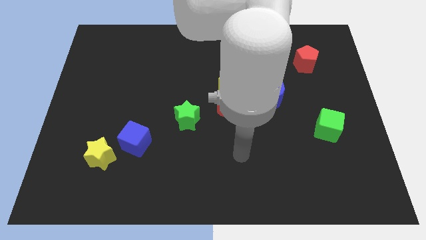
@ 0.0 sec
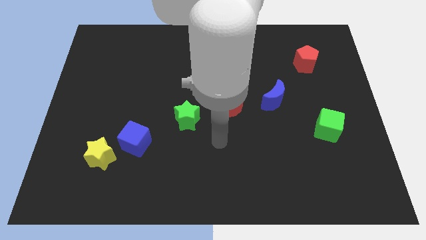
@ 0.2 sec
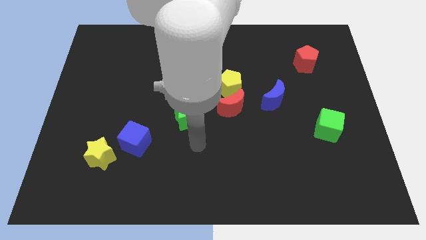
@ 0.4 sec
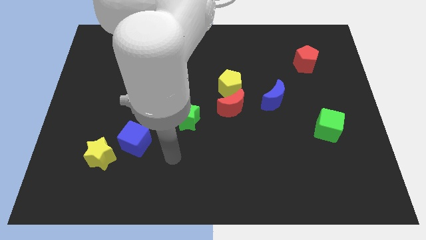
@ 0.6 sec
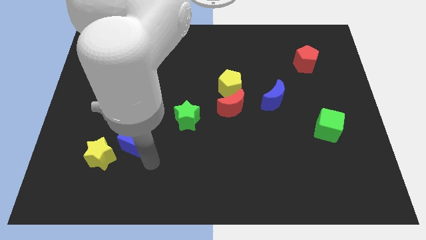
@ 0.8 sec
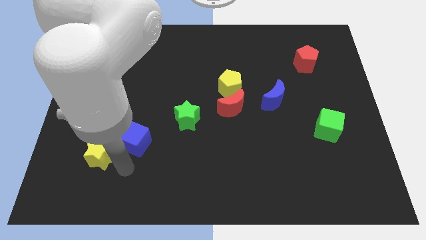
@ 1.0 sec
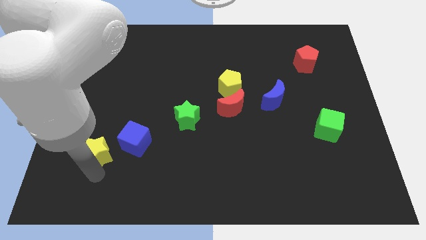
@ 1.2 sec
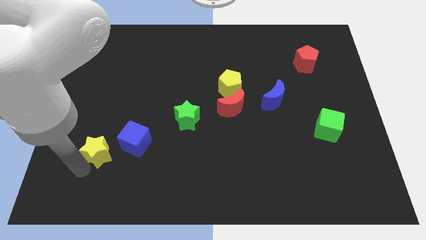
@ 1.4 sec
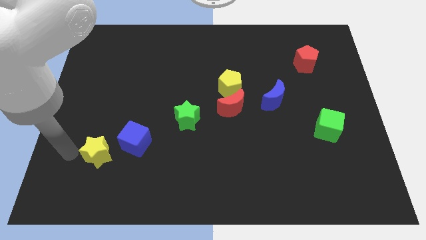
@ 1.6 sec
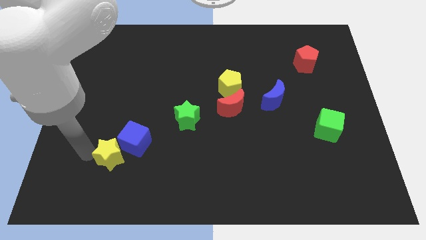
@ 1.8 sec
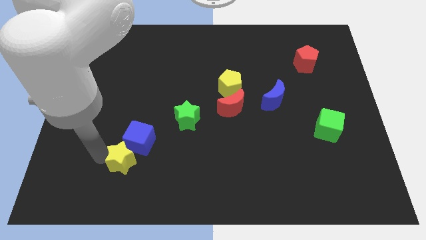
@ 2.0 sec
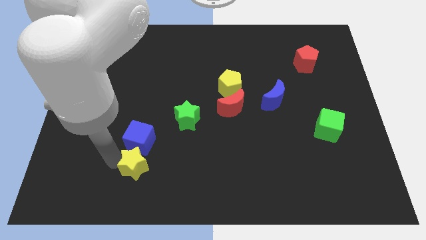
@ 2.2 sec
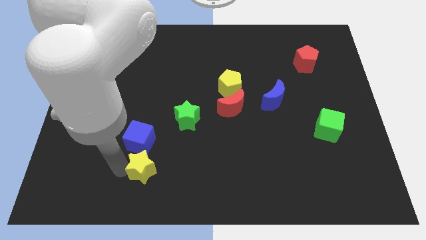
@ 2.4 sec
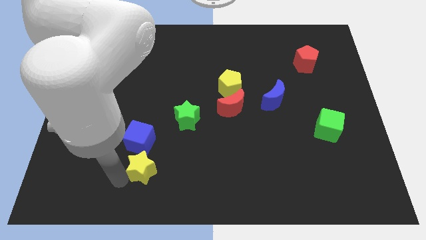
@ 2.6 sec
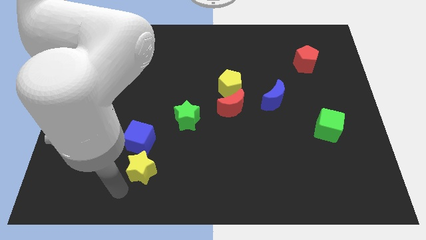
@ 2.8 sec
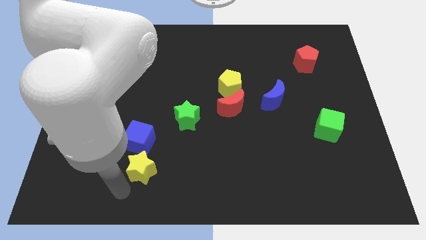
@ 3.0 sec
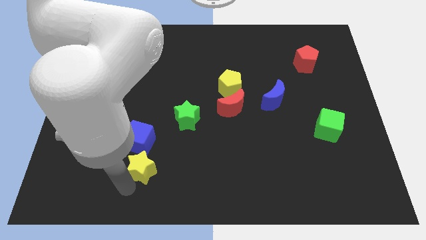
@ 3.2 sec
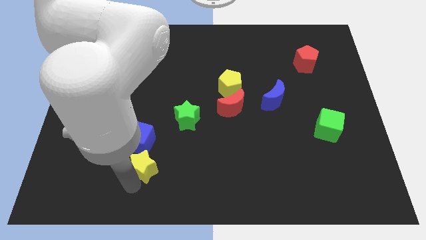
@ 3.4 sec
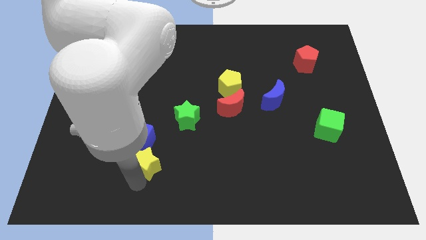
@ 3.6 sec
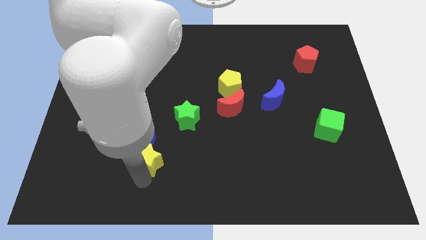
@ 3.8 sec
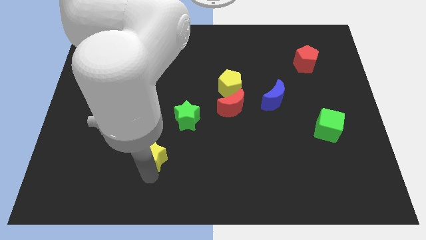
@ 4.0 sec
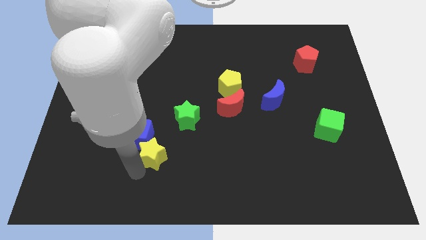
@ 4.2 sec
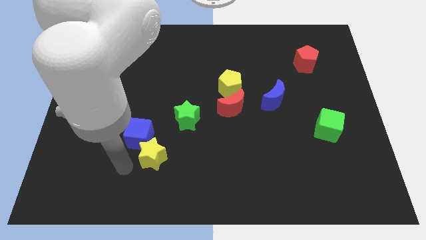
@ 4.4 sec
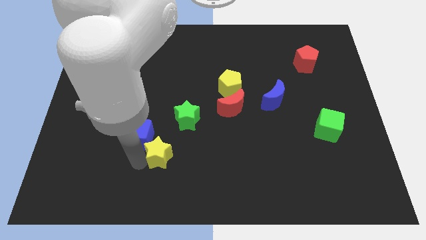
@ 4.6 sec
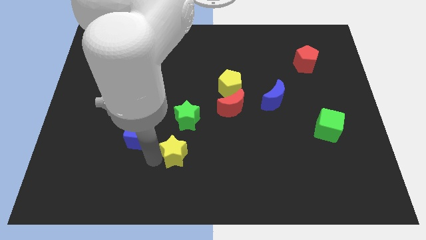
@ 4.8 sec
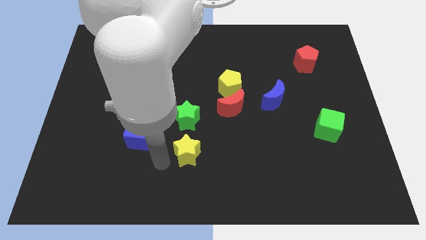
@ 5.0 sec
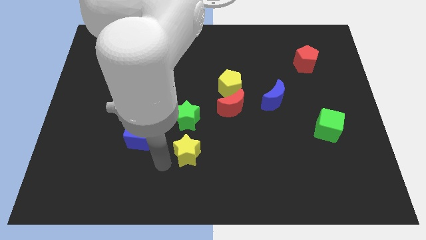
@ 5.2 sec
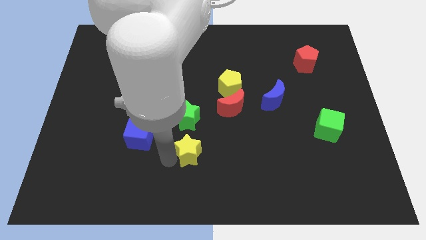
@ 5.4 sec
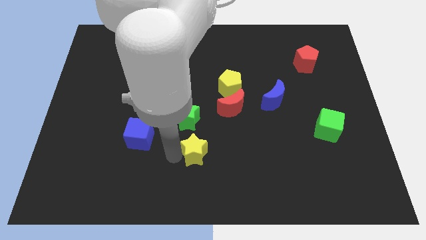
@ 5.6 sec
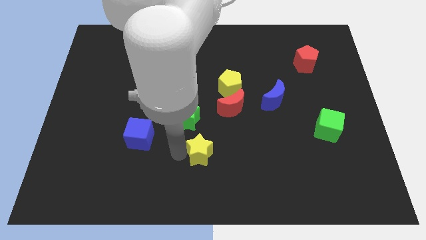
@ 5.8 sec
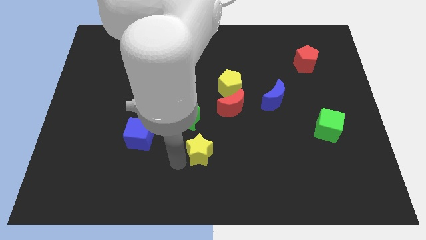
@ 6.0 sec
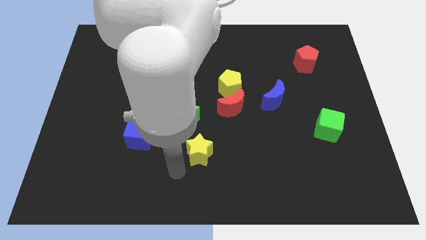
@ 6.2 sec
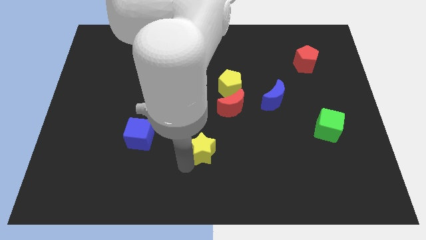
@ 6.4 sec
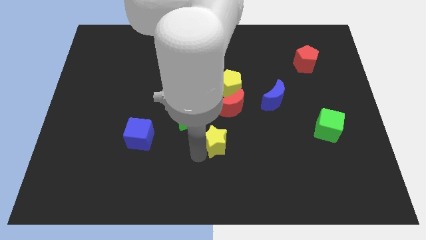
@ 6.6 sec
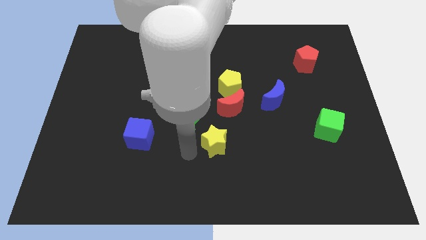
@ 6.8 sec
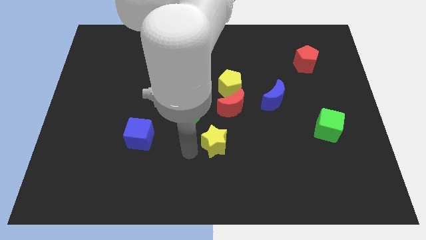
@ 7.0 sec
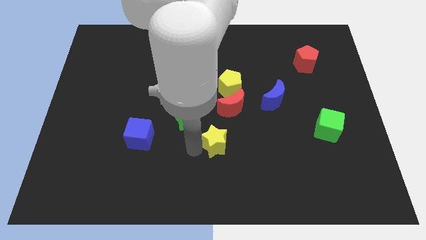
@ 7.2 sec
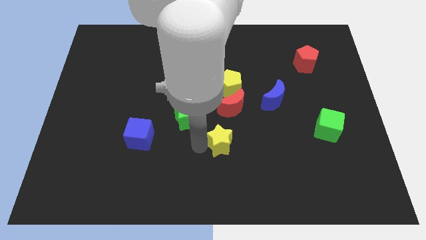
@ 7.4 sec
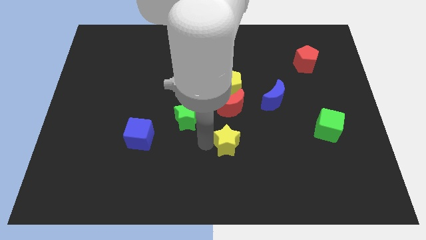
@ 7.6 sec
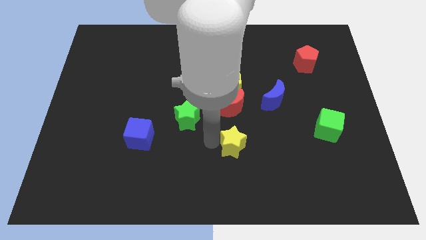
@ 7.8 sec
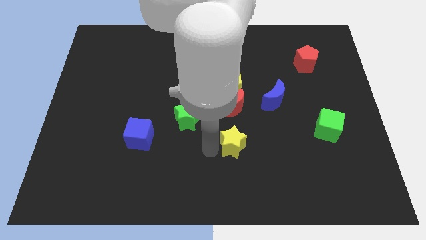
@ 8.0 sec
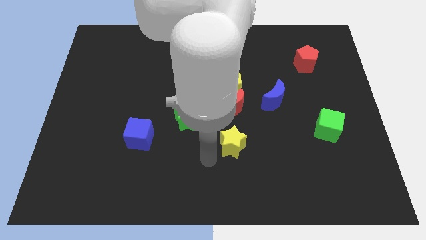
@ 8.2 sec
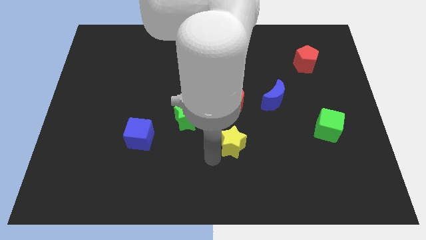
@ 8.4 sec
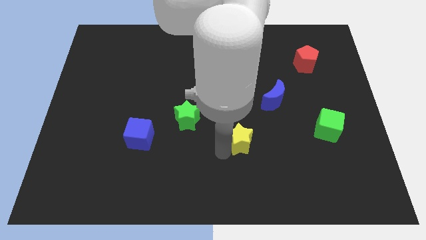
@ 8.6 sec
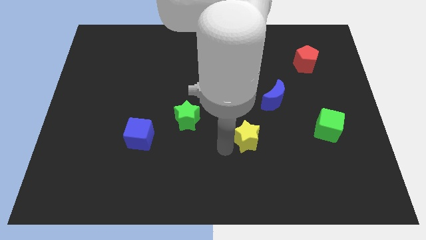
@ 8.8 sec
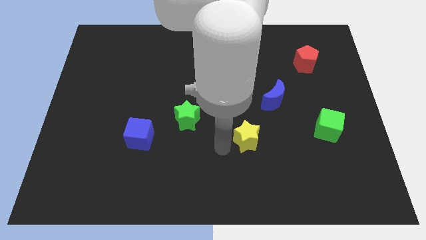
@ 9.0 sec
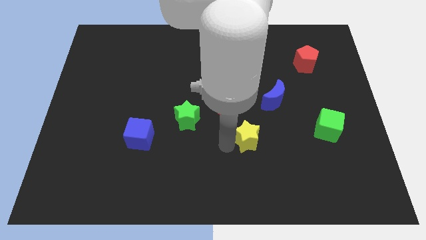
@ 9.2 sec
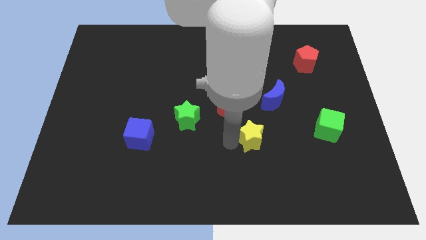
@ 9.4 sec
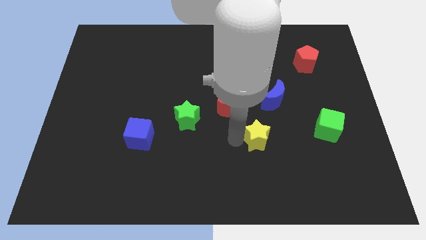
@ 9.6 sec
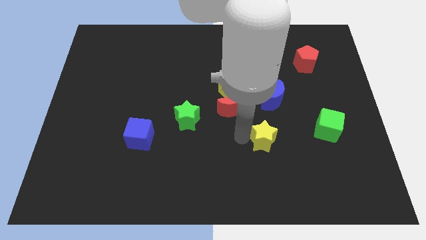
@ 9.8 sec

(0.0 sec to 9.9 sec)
slide the yellow star left of the green cube

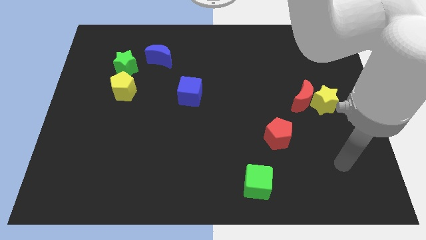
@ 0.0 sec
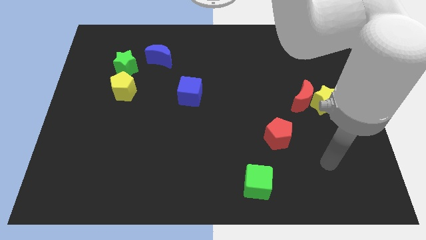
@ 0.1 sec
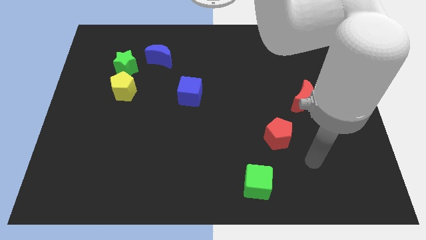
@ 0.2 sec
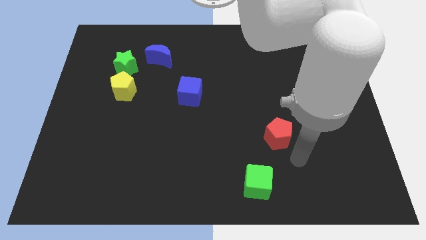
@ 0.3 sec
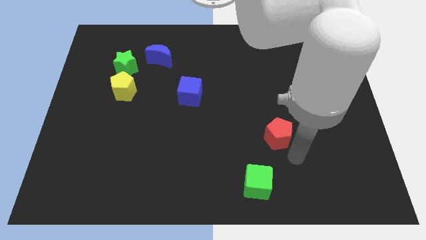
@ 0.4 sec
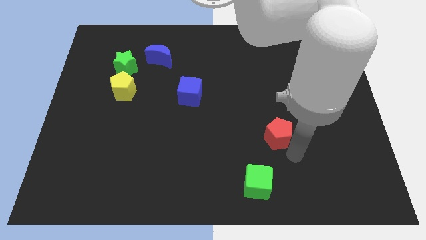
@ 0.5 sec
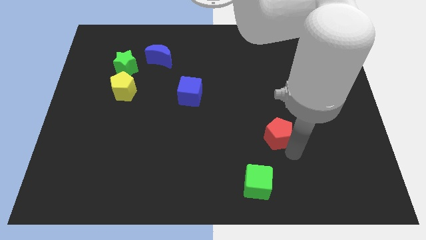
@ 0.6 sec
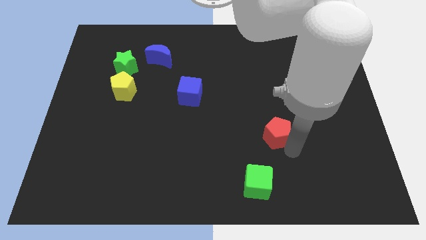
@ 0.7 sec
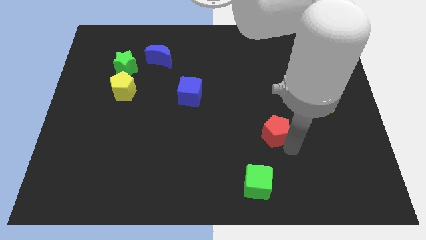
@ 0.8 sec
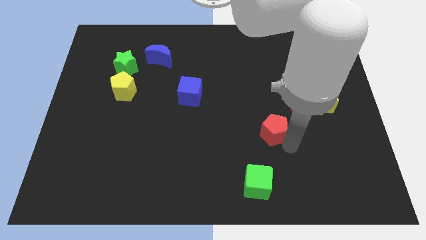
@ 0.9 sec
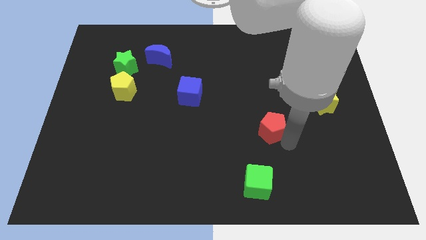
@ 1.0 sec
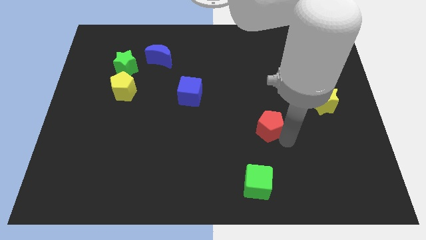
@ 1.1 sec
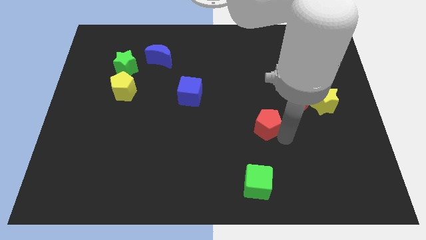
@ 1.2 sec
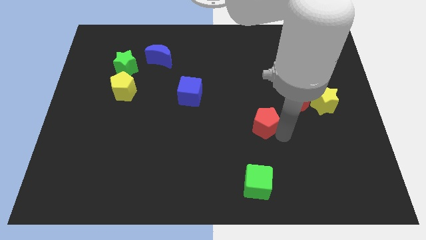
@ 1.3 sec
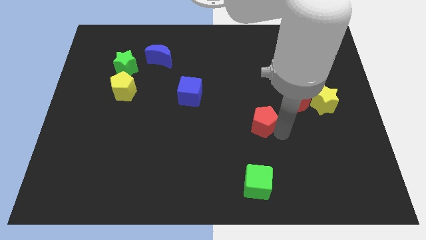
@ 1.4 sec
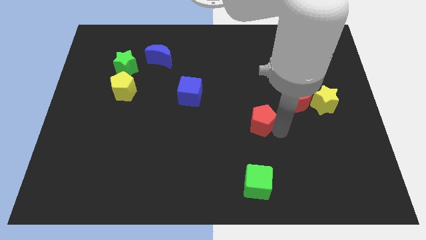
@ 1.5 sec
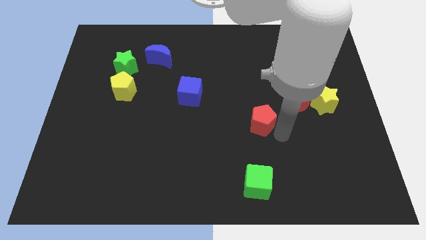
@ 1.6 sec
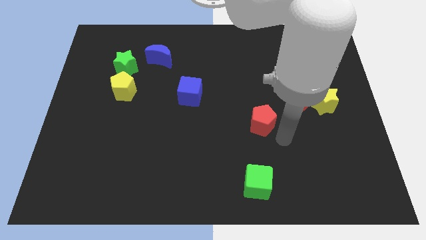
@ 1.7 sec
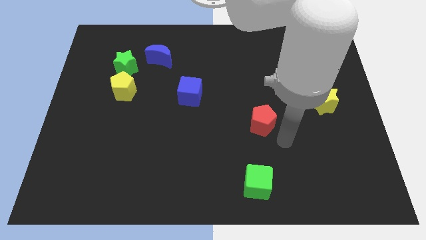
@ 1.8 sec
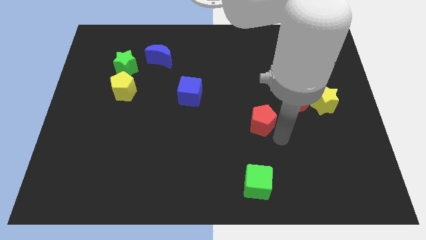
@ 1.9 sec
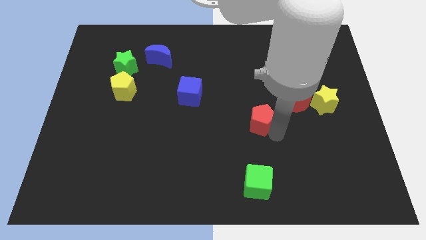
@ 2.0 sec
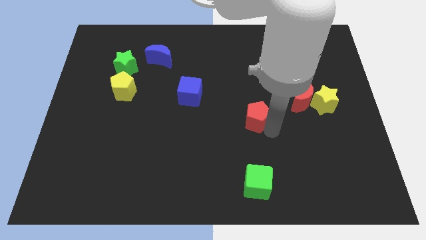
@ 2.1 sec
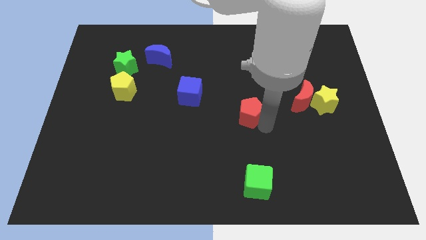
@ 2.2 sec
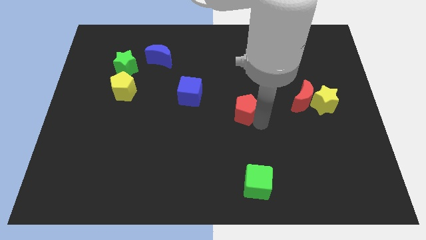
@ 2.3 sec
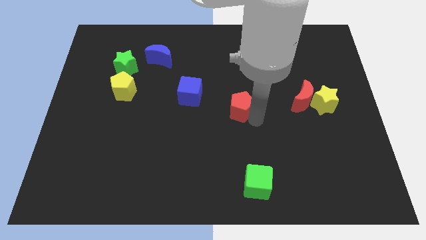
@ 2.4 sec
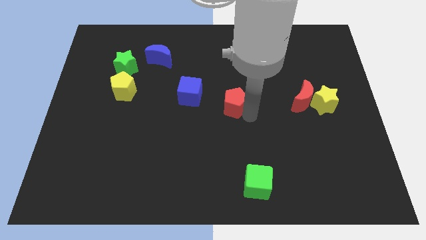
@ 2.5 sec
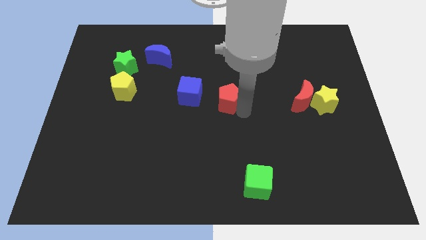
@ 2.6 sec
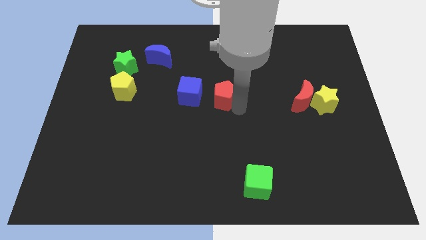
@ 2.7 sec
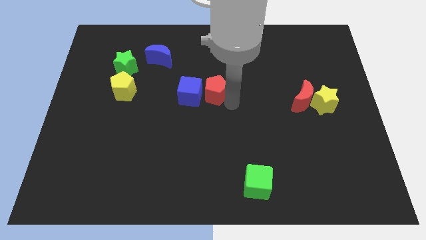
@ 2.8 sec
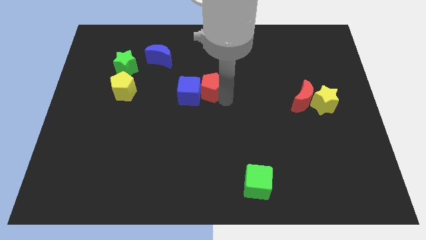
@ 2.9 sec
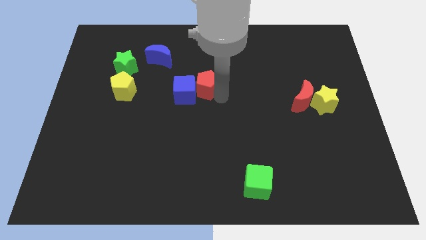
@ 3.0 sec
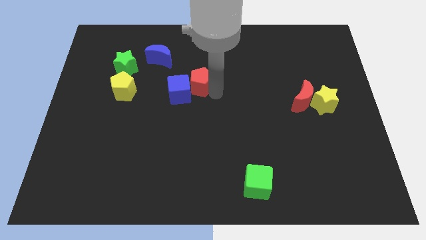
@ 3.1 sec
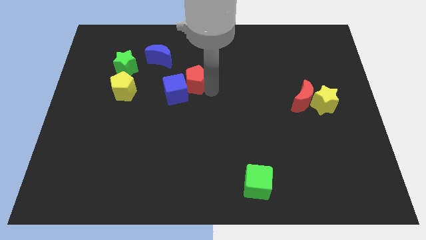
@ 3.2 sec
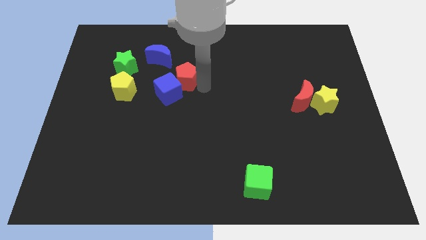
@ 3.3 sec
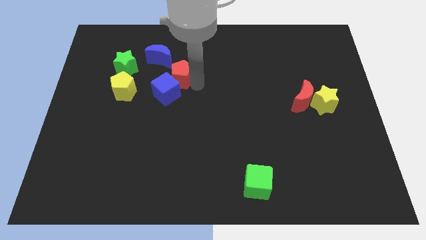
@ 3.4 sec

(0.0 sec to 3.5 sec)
put the red pentagon just right of the green star
